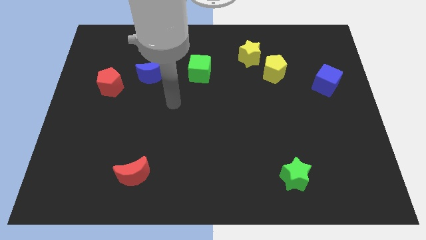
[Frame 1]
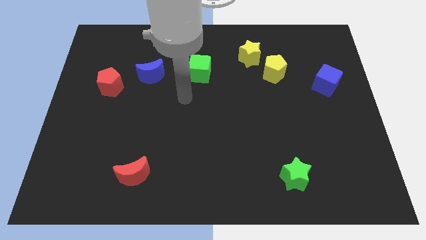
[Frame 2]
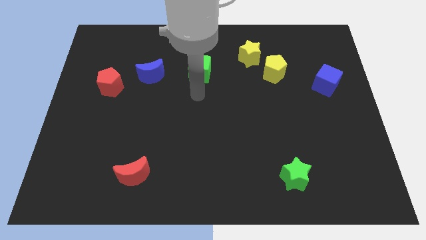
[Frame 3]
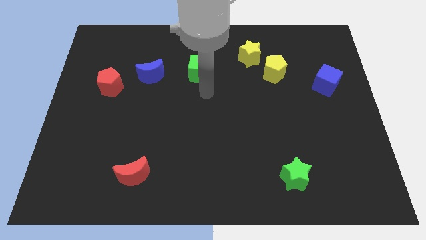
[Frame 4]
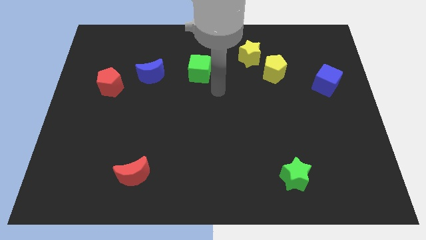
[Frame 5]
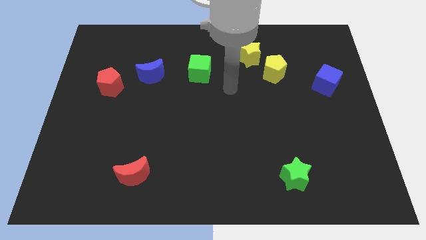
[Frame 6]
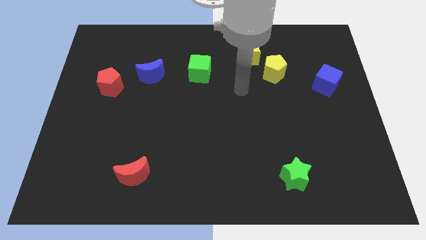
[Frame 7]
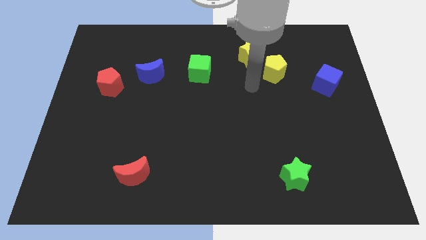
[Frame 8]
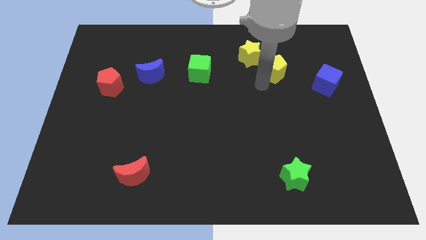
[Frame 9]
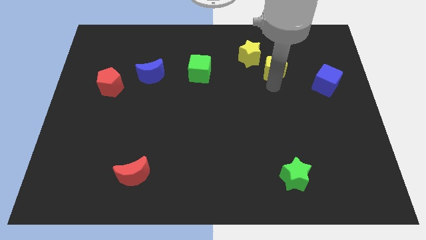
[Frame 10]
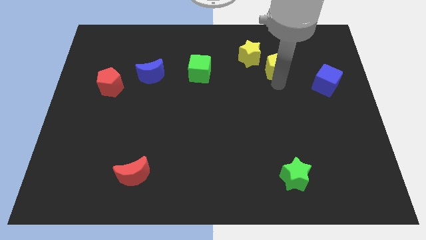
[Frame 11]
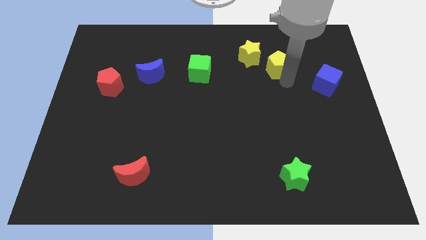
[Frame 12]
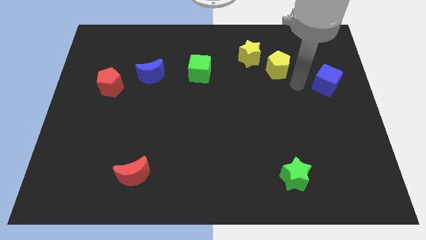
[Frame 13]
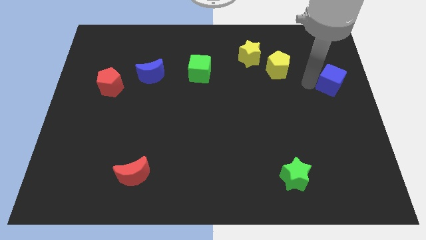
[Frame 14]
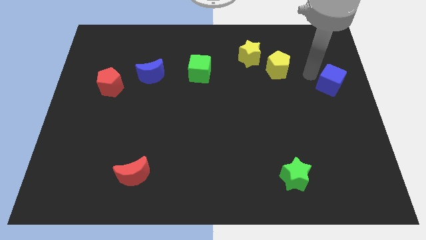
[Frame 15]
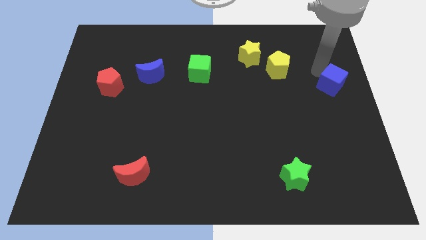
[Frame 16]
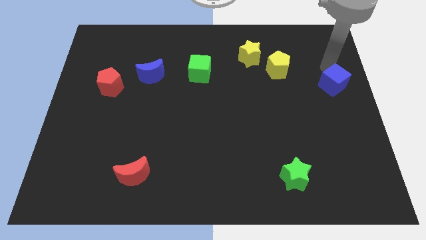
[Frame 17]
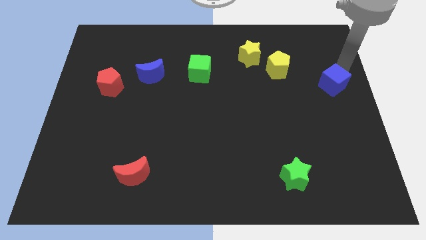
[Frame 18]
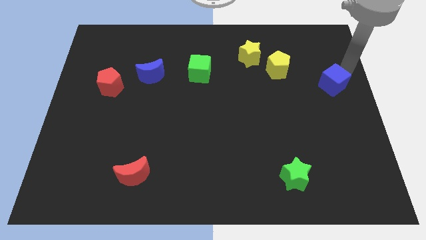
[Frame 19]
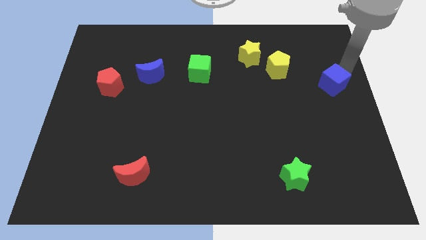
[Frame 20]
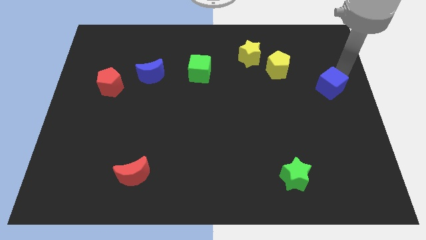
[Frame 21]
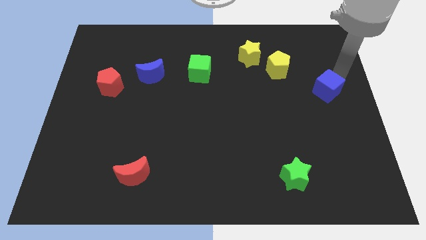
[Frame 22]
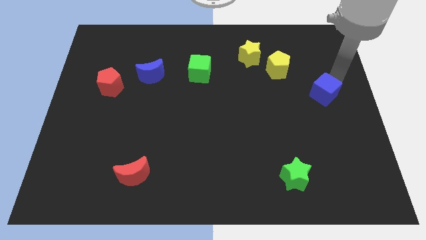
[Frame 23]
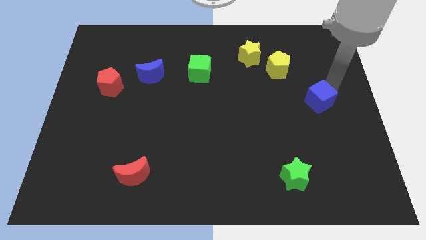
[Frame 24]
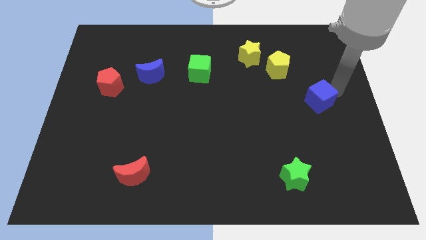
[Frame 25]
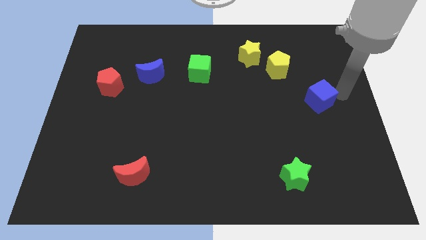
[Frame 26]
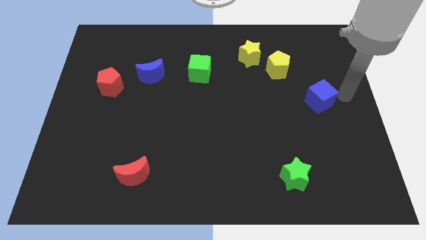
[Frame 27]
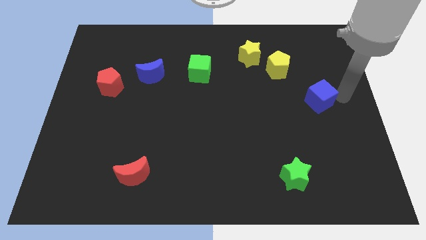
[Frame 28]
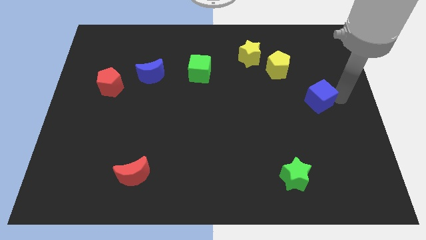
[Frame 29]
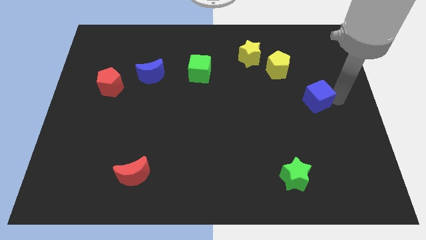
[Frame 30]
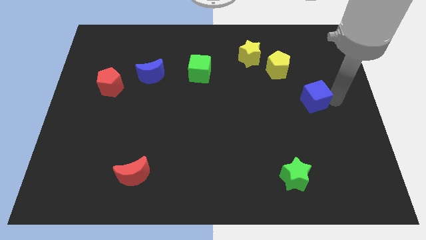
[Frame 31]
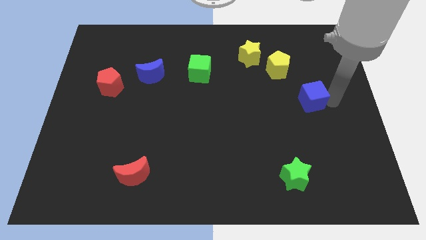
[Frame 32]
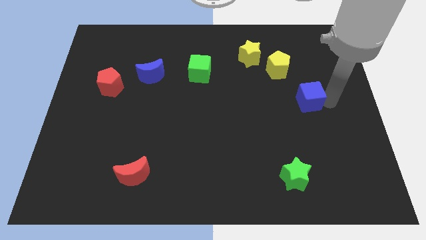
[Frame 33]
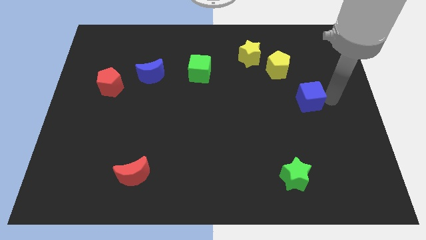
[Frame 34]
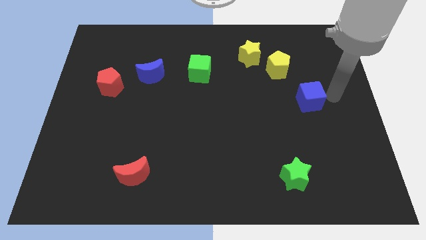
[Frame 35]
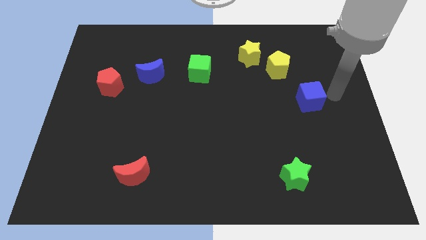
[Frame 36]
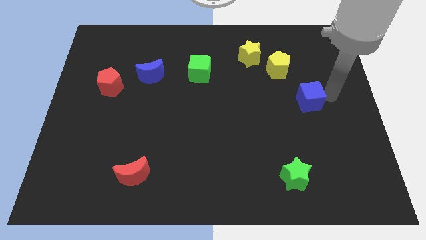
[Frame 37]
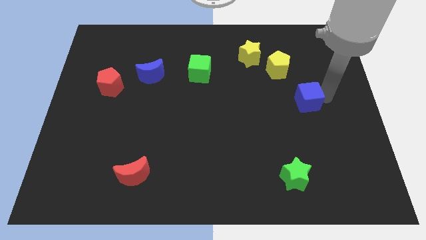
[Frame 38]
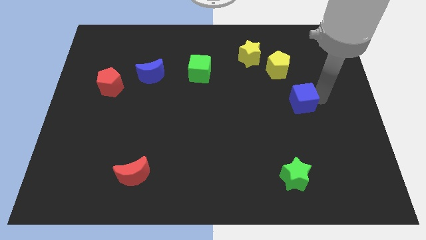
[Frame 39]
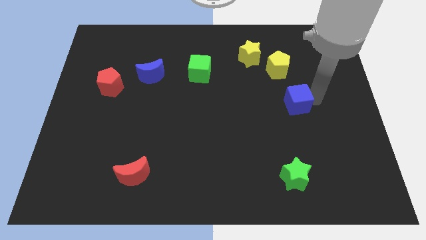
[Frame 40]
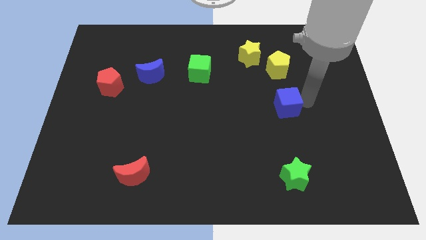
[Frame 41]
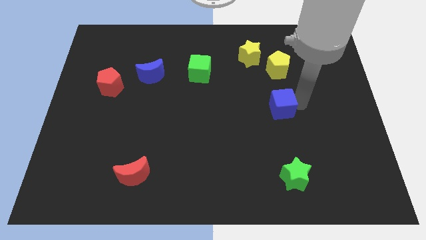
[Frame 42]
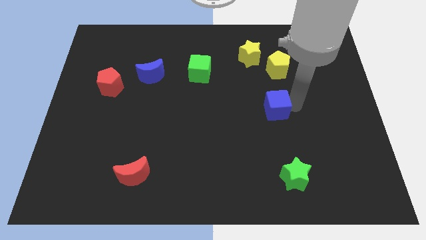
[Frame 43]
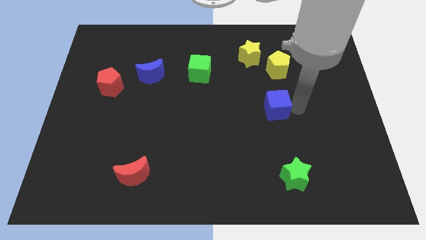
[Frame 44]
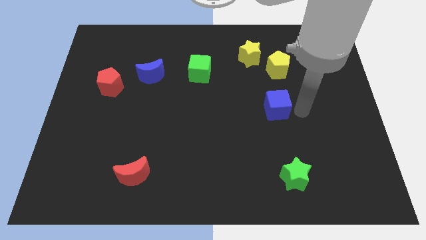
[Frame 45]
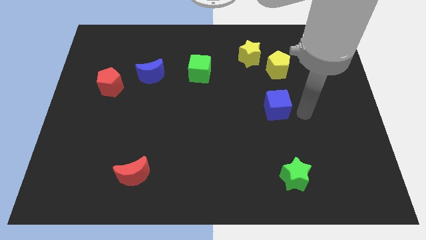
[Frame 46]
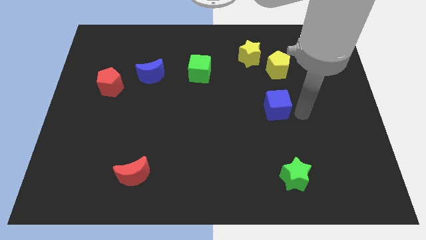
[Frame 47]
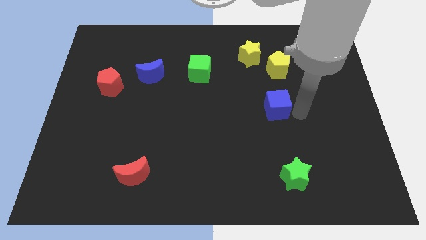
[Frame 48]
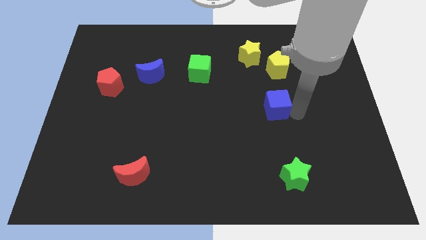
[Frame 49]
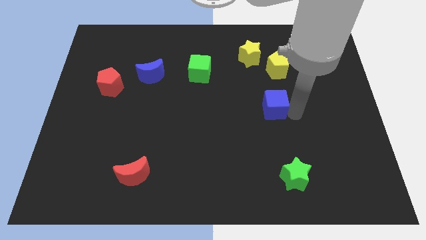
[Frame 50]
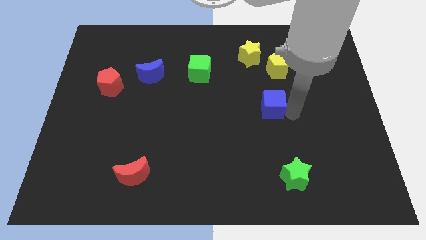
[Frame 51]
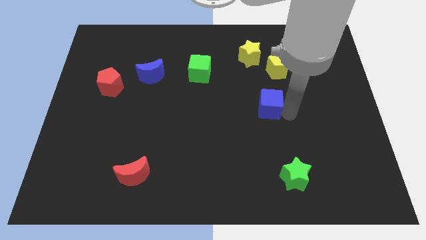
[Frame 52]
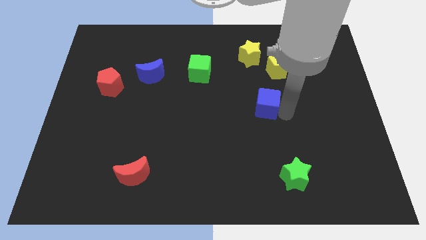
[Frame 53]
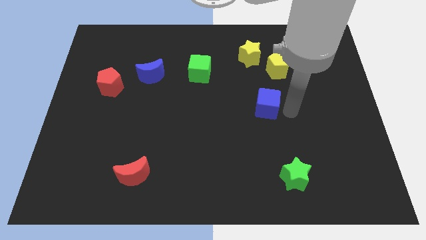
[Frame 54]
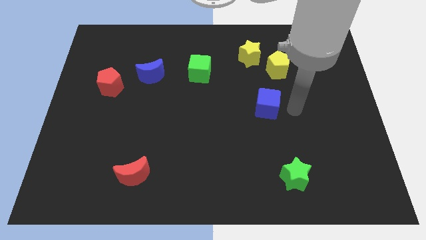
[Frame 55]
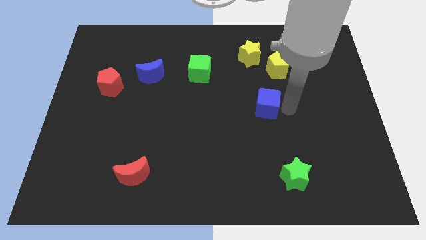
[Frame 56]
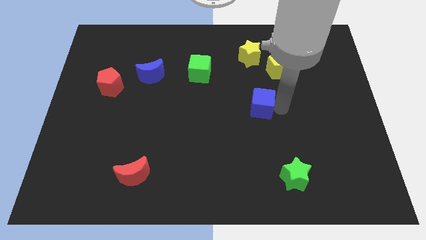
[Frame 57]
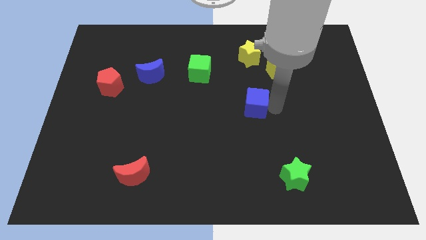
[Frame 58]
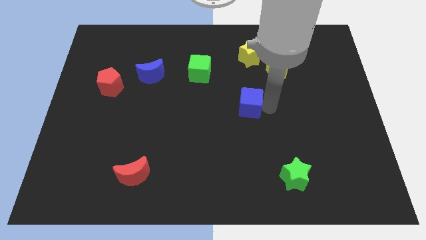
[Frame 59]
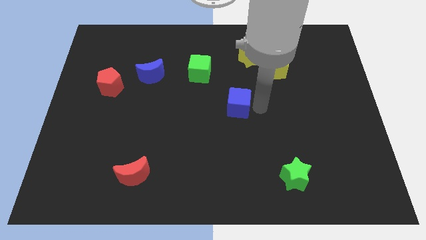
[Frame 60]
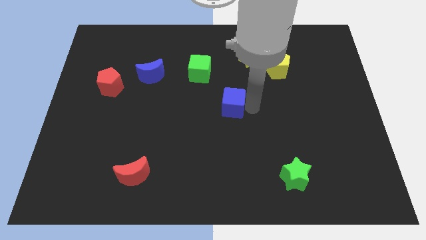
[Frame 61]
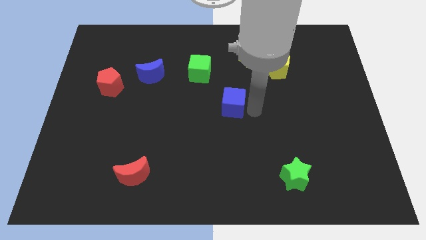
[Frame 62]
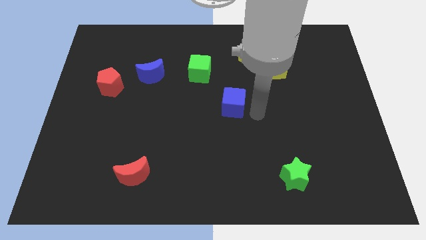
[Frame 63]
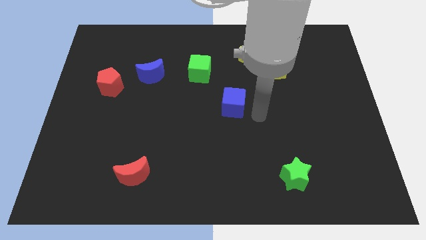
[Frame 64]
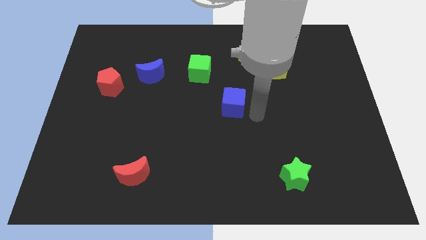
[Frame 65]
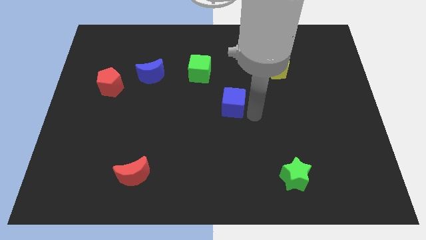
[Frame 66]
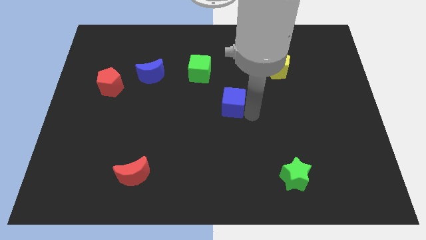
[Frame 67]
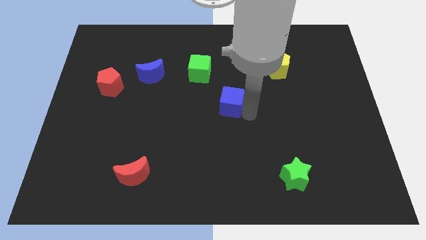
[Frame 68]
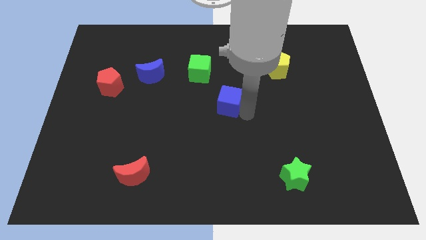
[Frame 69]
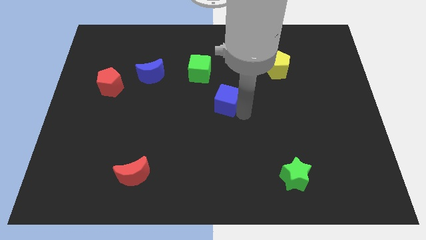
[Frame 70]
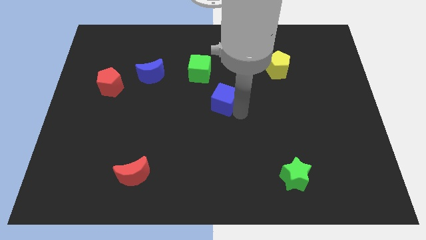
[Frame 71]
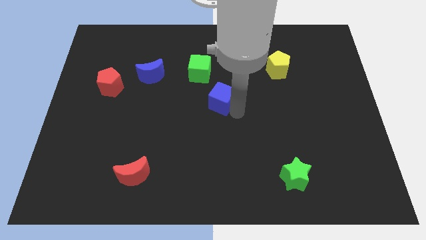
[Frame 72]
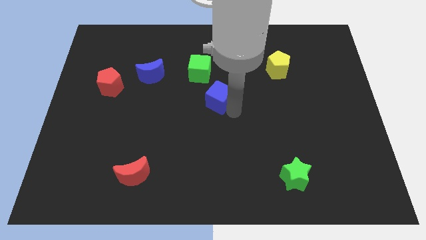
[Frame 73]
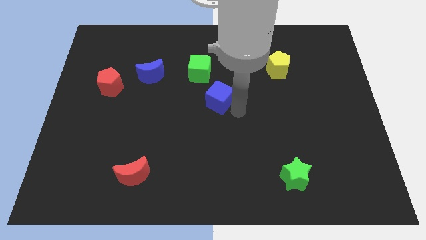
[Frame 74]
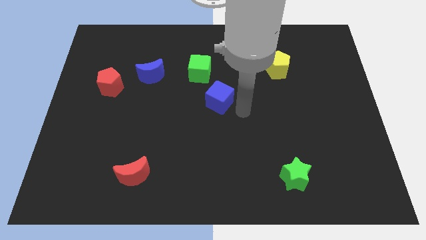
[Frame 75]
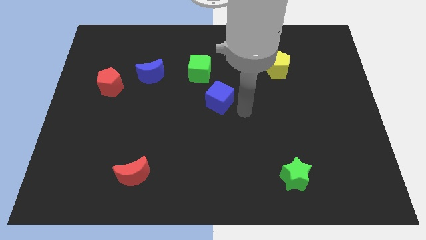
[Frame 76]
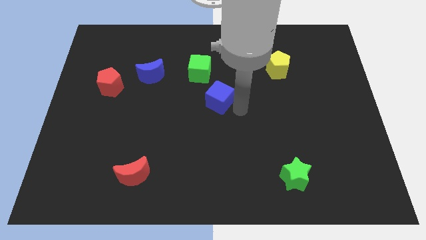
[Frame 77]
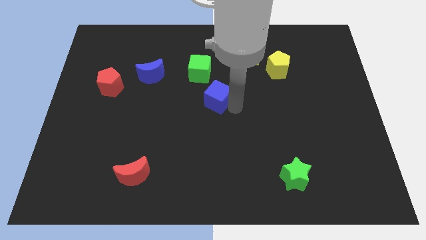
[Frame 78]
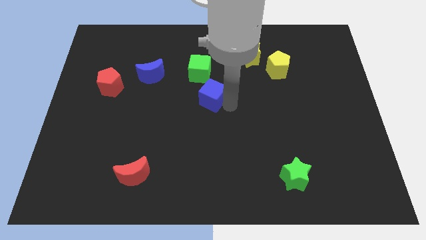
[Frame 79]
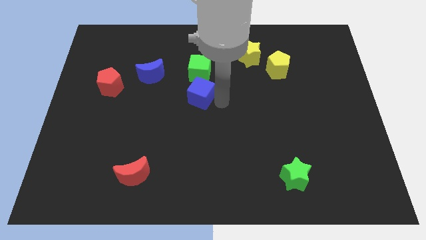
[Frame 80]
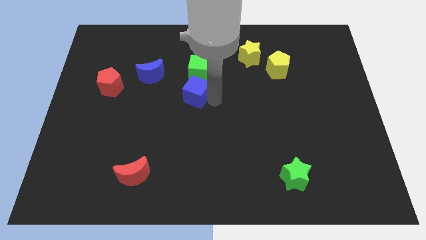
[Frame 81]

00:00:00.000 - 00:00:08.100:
move the blue cube to the bottom left side of the green cube
